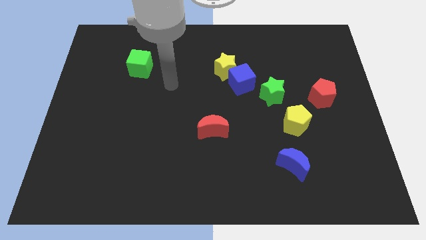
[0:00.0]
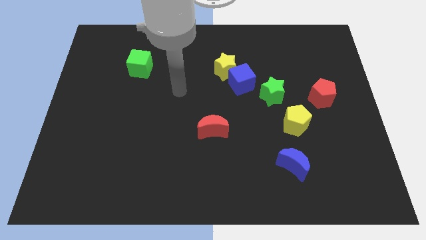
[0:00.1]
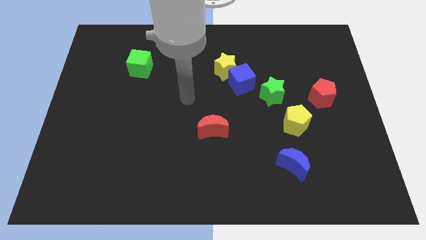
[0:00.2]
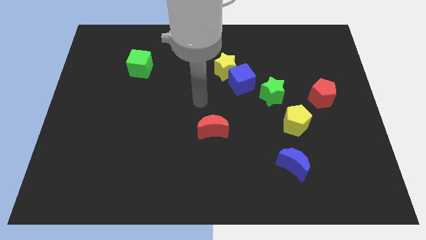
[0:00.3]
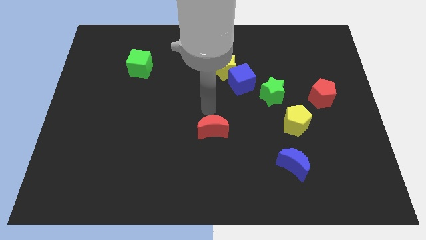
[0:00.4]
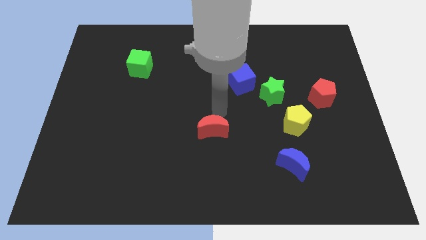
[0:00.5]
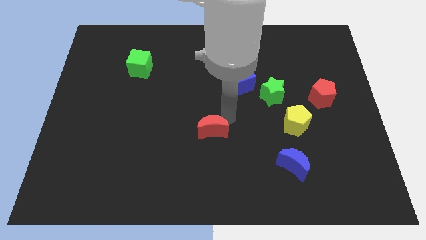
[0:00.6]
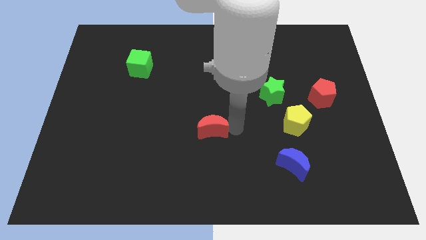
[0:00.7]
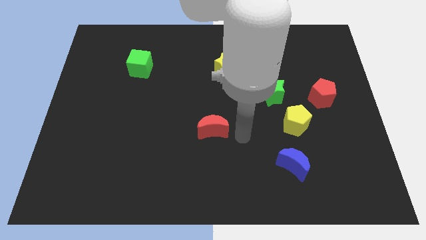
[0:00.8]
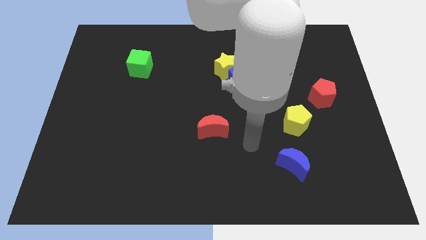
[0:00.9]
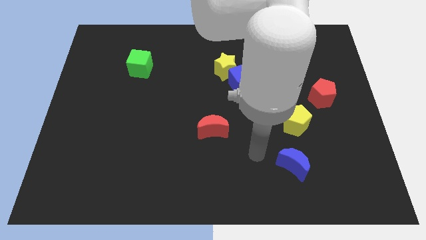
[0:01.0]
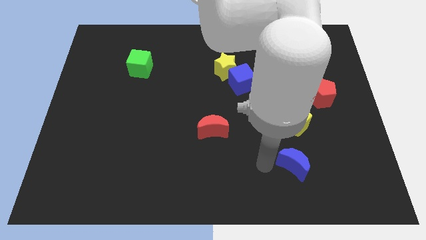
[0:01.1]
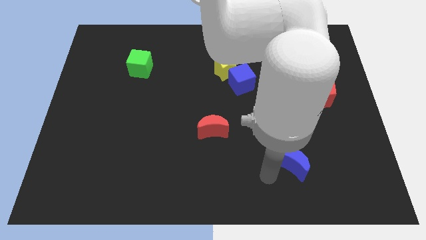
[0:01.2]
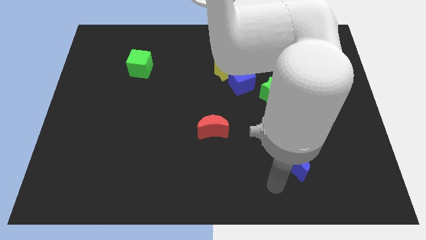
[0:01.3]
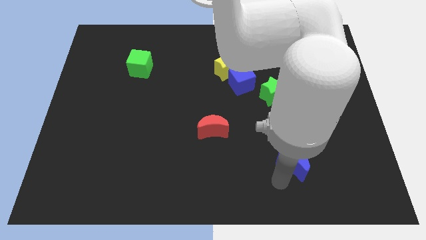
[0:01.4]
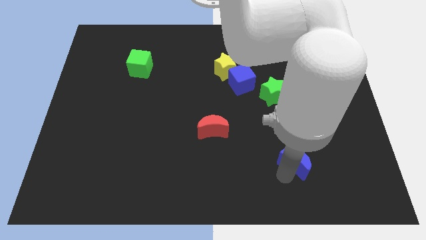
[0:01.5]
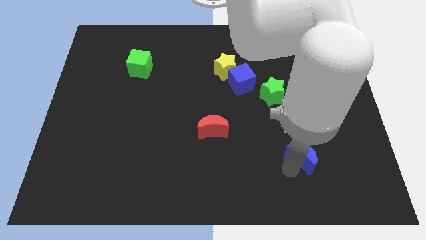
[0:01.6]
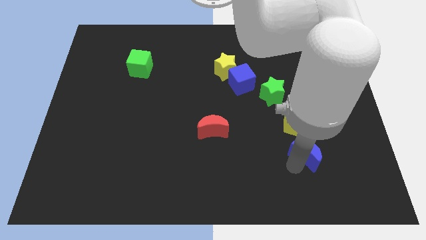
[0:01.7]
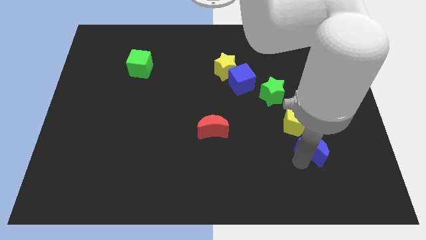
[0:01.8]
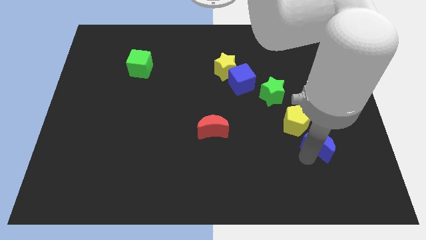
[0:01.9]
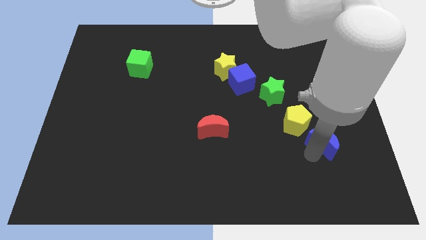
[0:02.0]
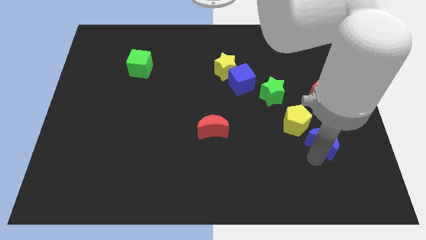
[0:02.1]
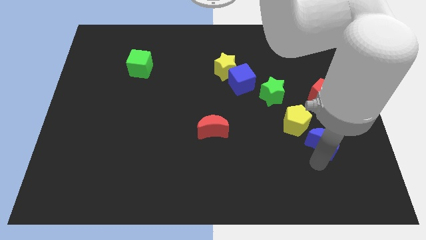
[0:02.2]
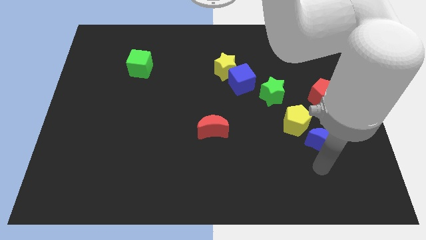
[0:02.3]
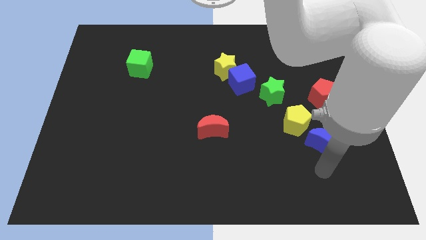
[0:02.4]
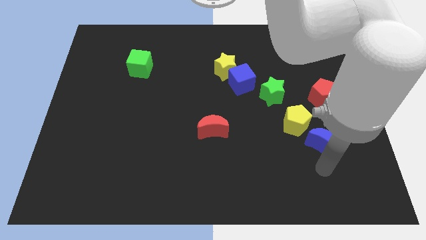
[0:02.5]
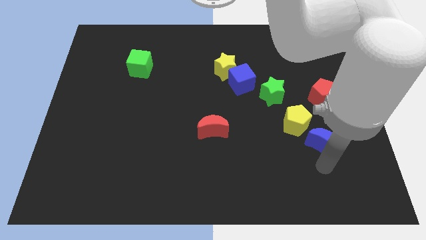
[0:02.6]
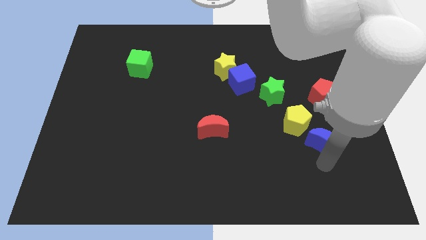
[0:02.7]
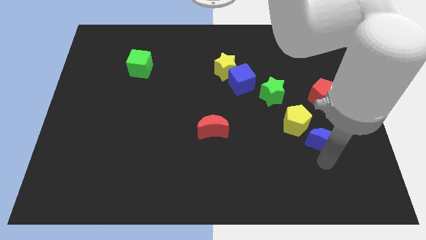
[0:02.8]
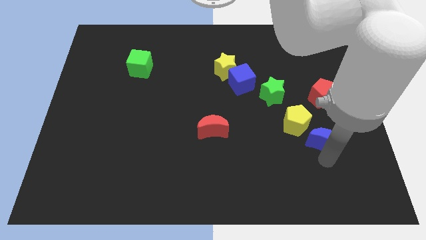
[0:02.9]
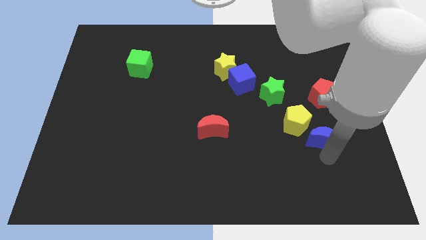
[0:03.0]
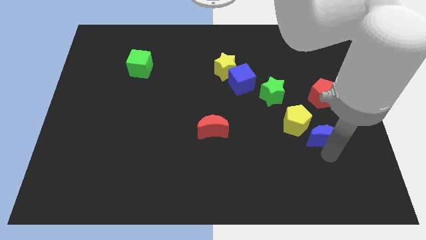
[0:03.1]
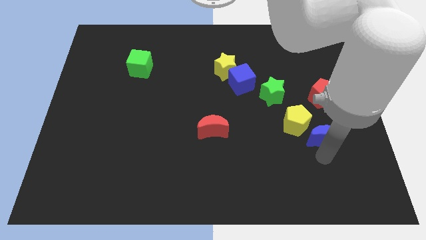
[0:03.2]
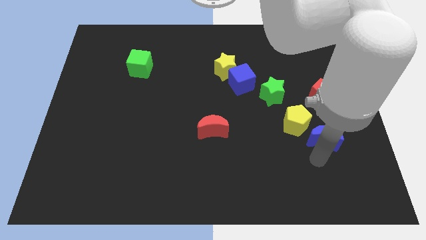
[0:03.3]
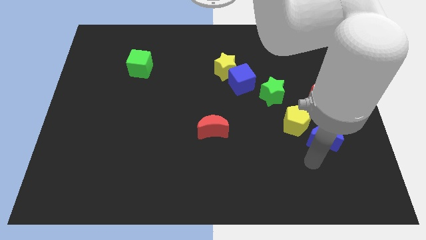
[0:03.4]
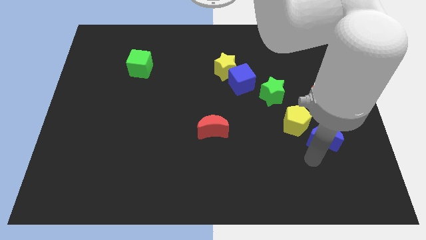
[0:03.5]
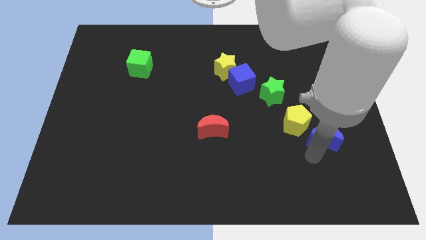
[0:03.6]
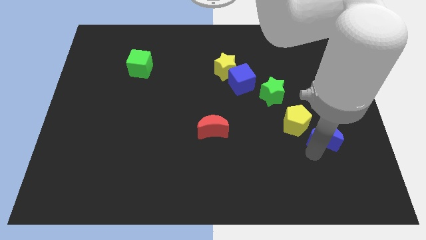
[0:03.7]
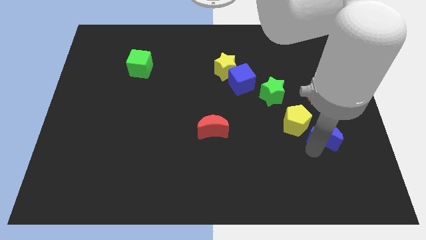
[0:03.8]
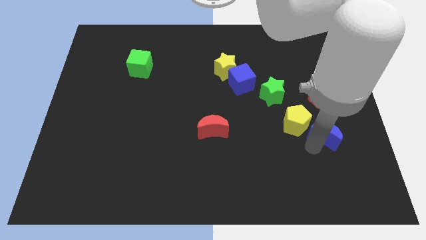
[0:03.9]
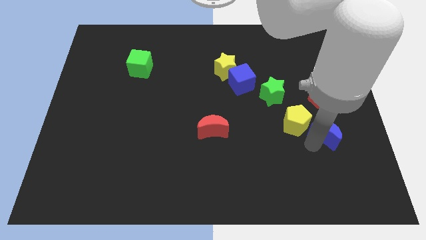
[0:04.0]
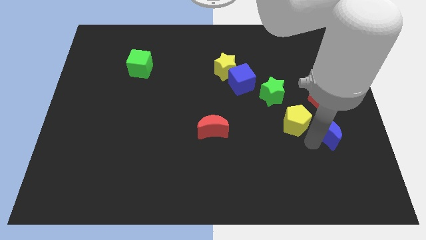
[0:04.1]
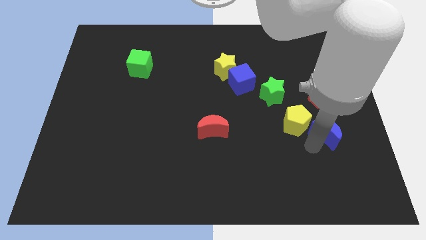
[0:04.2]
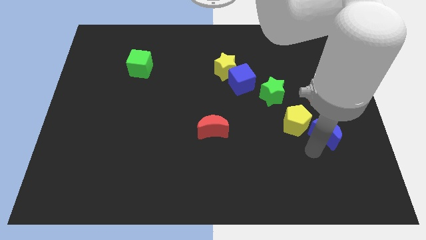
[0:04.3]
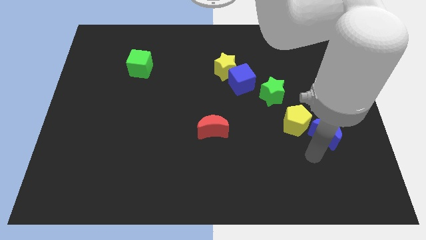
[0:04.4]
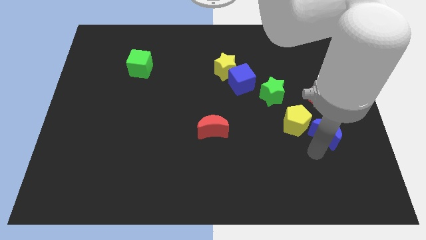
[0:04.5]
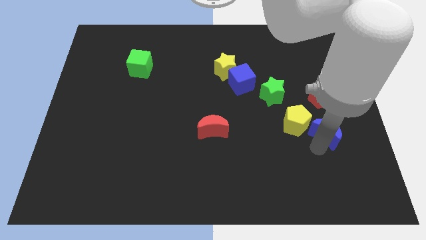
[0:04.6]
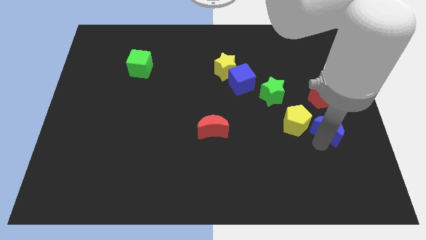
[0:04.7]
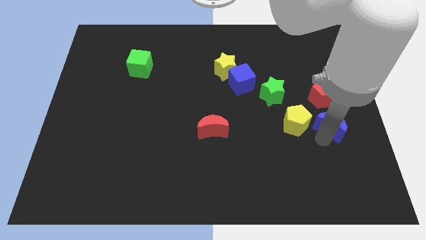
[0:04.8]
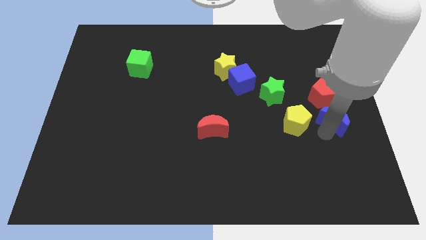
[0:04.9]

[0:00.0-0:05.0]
put the blue moon to the center right

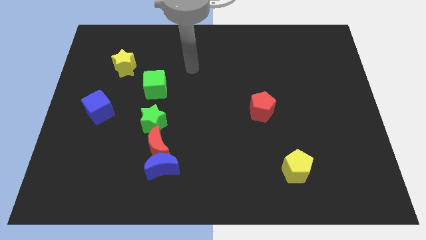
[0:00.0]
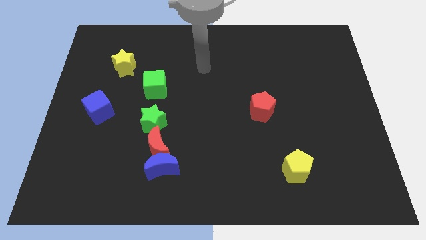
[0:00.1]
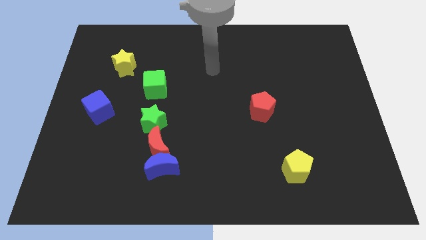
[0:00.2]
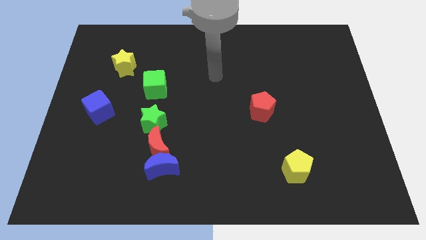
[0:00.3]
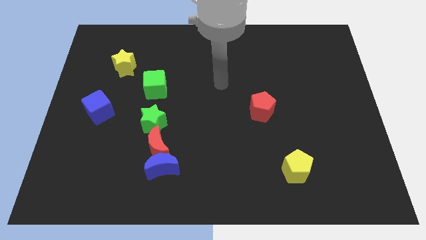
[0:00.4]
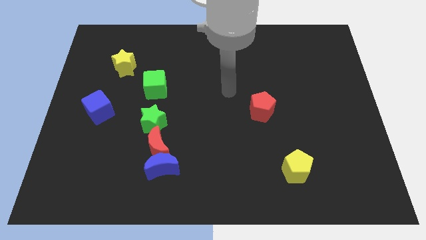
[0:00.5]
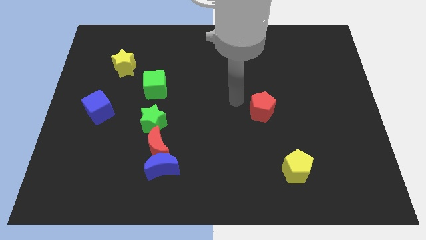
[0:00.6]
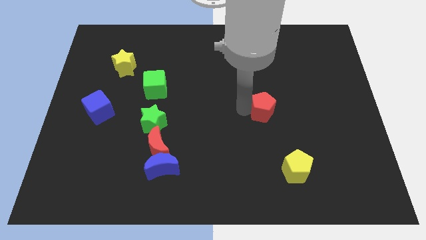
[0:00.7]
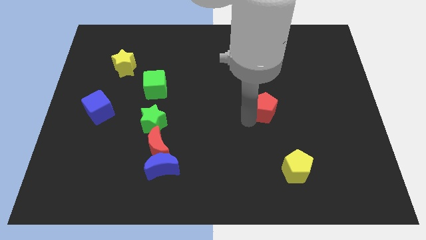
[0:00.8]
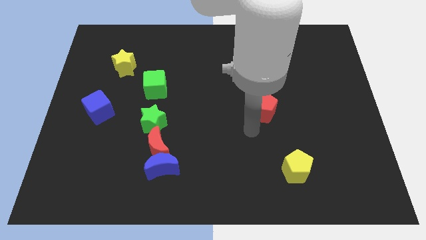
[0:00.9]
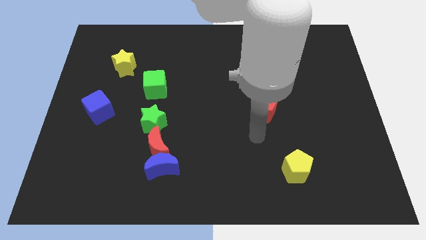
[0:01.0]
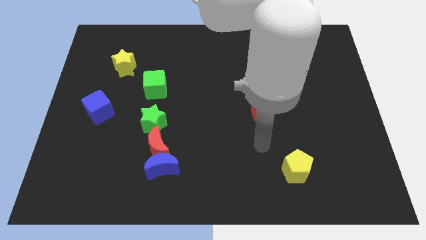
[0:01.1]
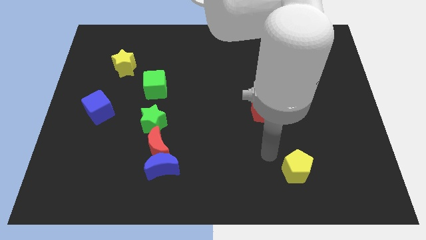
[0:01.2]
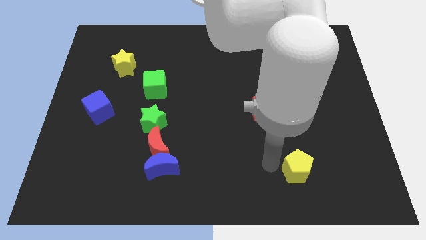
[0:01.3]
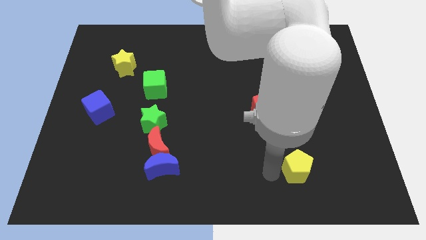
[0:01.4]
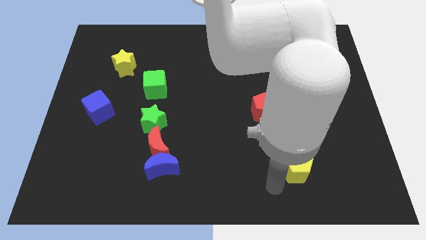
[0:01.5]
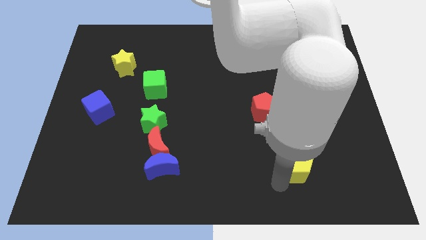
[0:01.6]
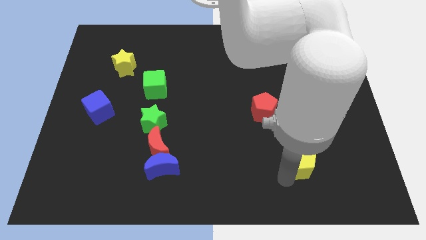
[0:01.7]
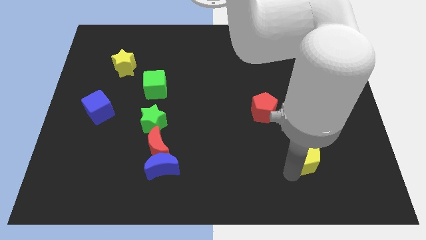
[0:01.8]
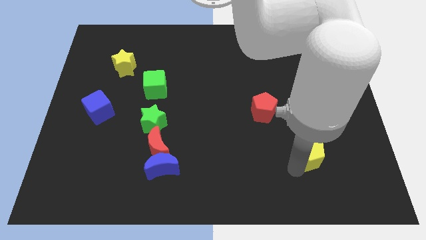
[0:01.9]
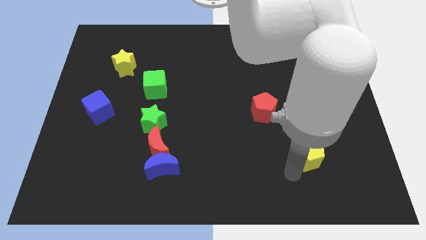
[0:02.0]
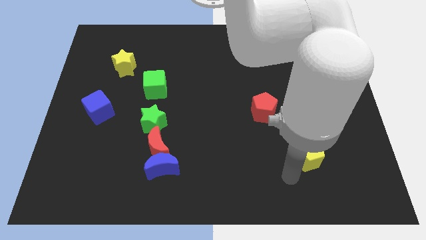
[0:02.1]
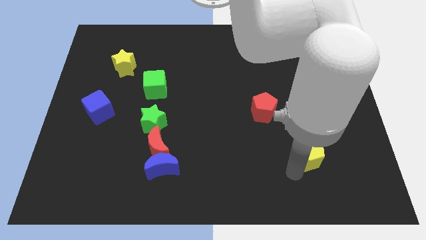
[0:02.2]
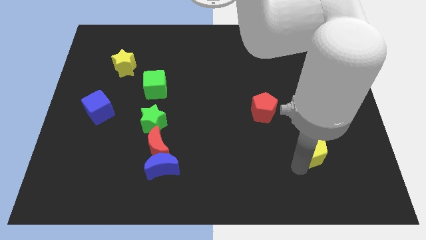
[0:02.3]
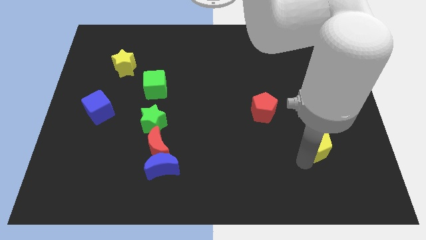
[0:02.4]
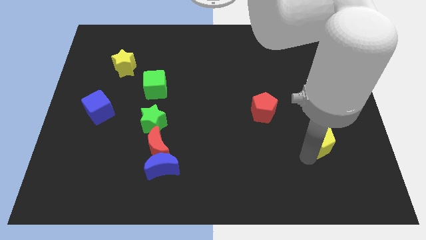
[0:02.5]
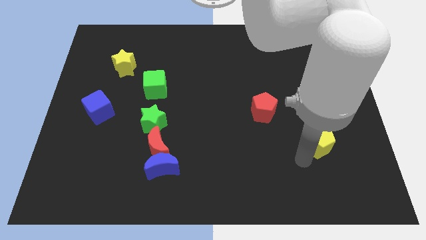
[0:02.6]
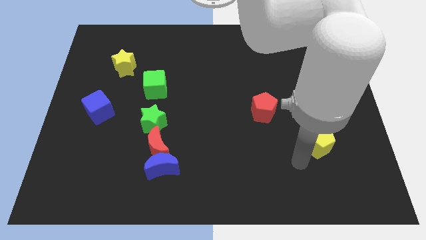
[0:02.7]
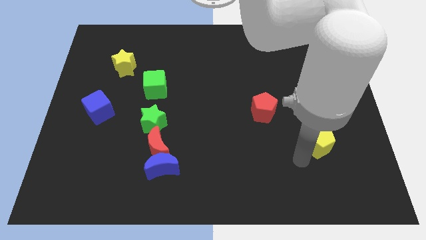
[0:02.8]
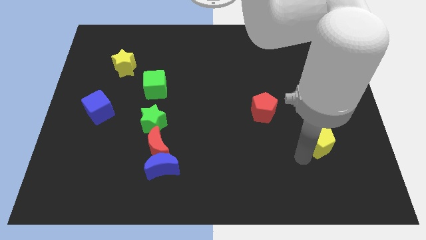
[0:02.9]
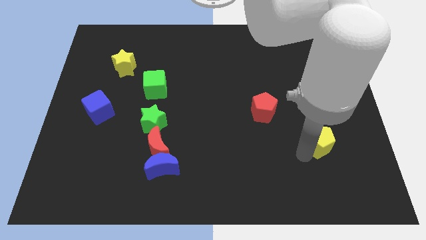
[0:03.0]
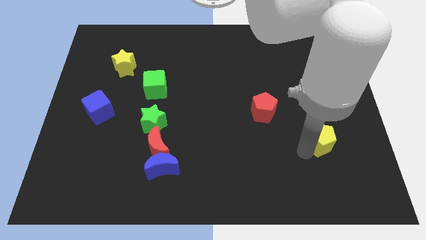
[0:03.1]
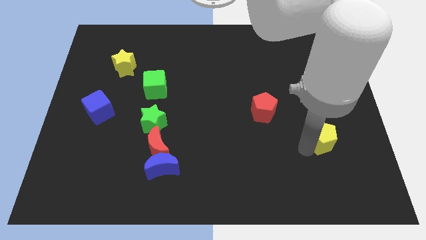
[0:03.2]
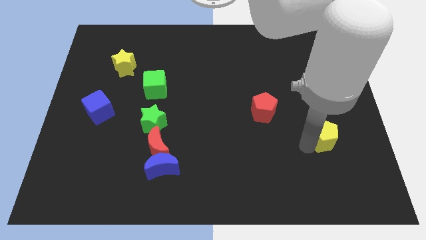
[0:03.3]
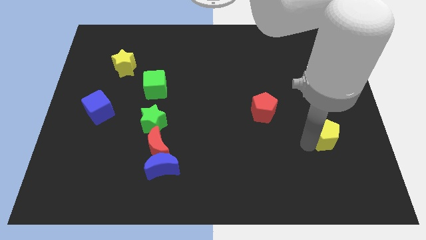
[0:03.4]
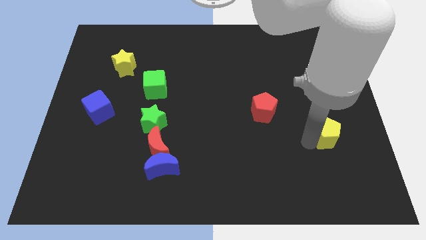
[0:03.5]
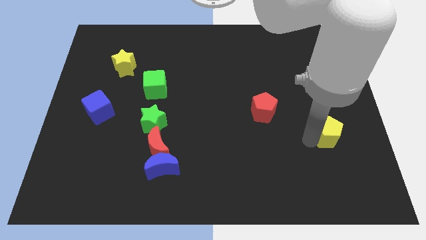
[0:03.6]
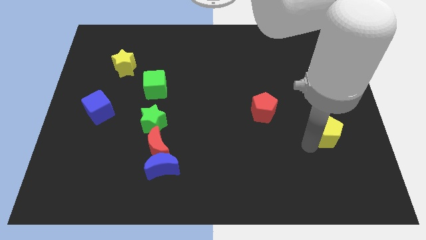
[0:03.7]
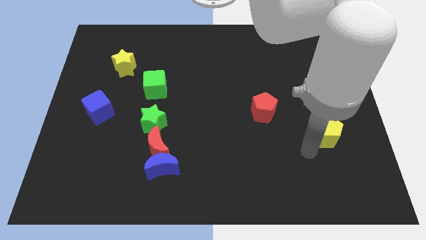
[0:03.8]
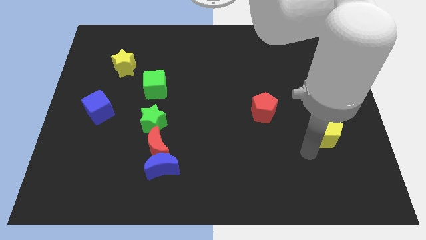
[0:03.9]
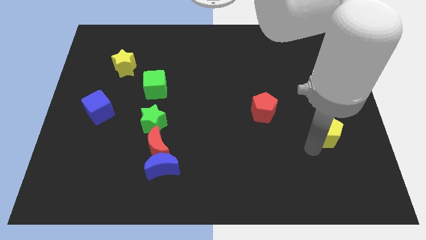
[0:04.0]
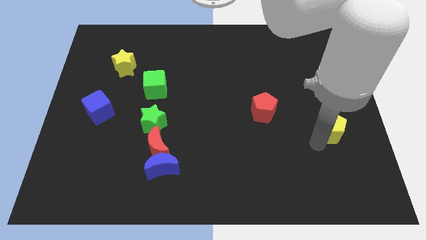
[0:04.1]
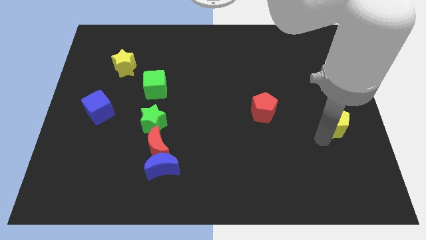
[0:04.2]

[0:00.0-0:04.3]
push the yellow pentagon to the right side
